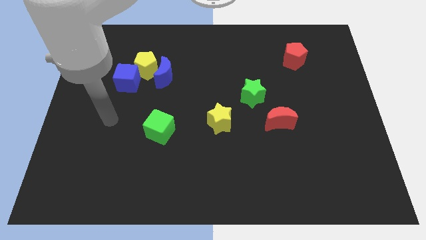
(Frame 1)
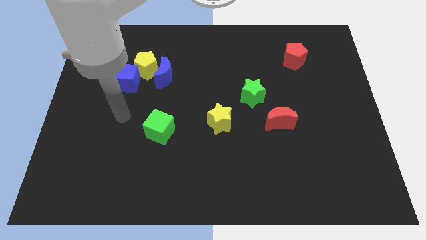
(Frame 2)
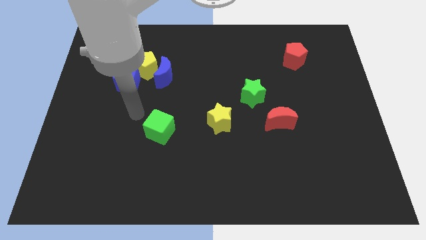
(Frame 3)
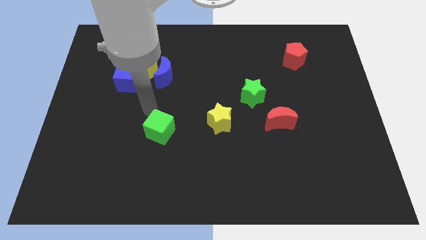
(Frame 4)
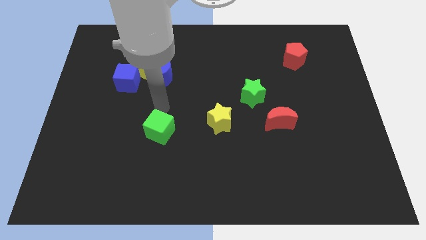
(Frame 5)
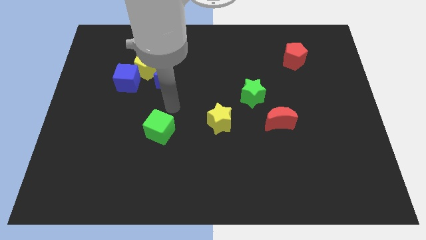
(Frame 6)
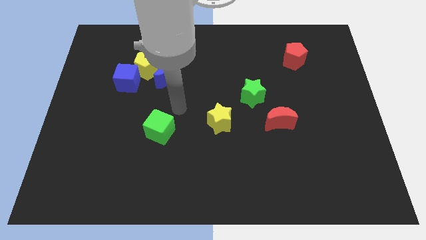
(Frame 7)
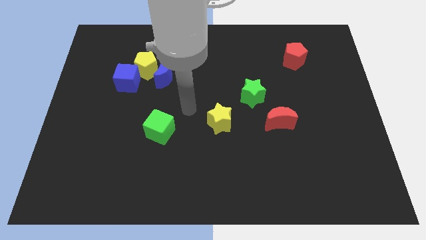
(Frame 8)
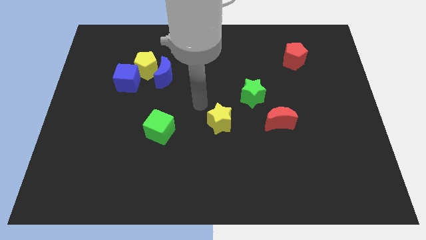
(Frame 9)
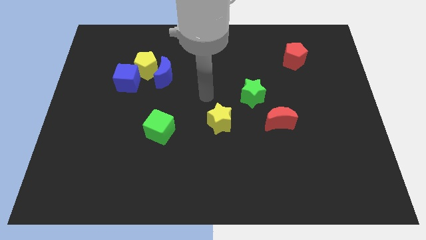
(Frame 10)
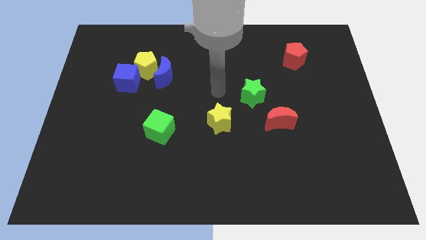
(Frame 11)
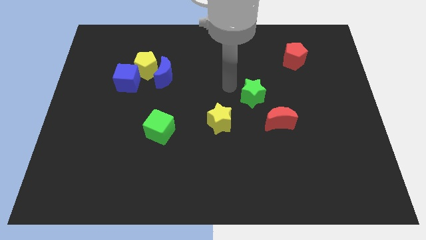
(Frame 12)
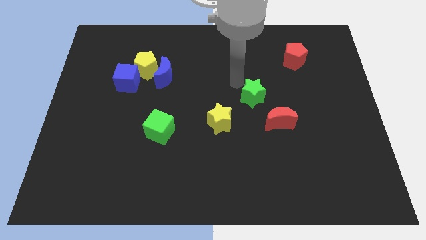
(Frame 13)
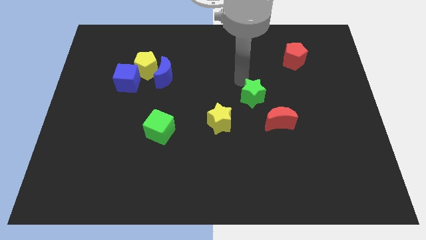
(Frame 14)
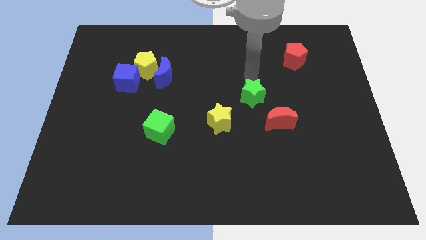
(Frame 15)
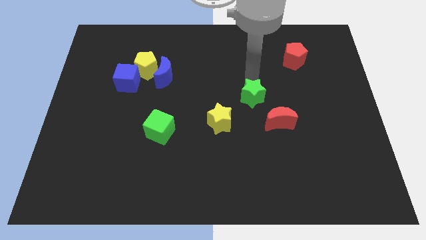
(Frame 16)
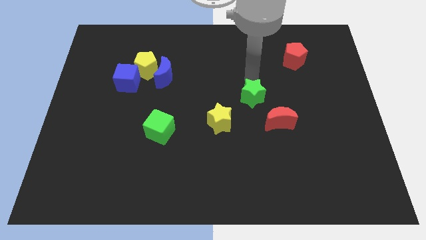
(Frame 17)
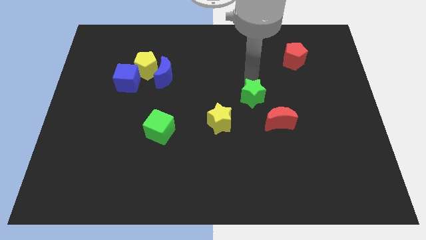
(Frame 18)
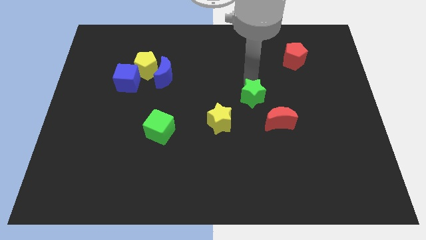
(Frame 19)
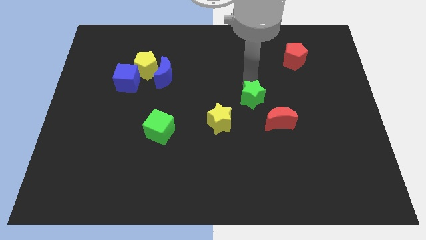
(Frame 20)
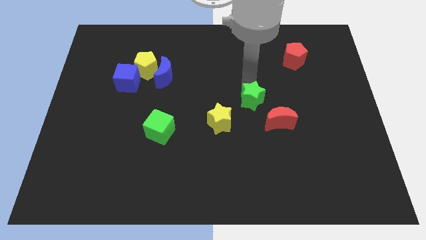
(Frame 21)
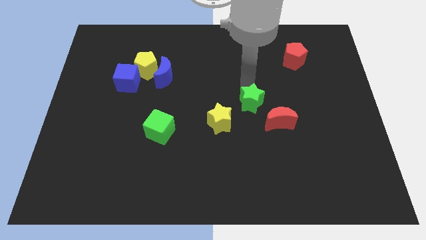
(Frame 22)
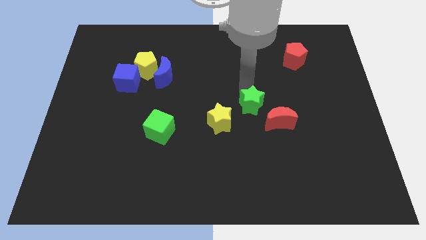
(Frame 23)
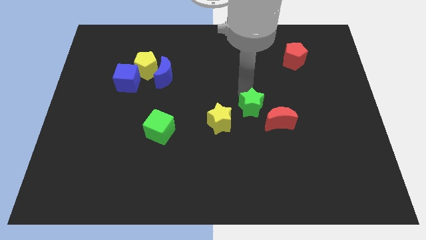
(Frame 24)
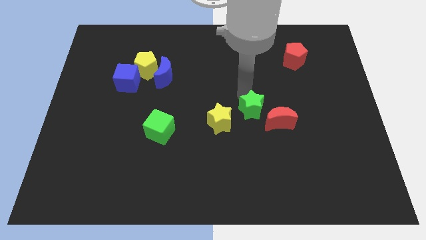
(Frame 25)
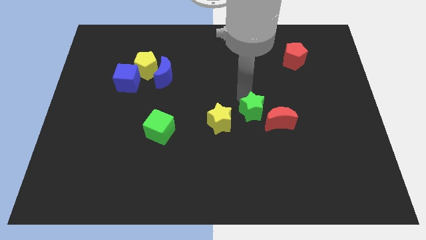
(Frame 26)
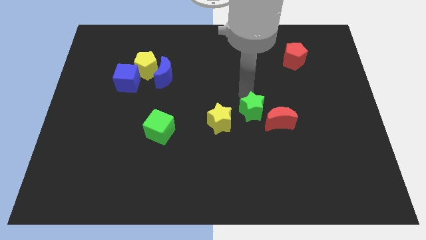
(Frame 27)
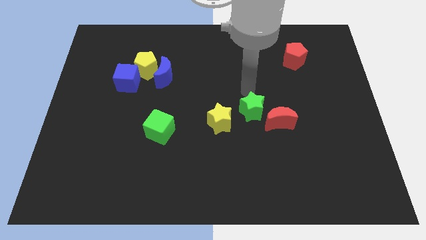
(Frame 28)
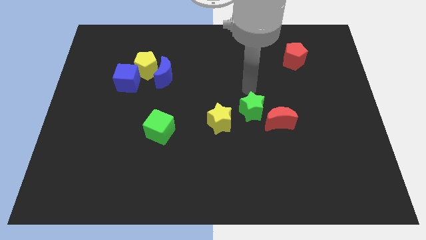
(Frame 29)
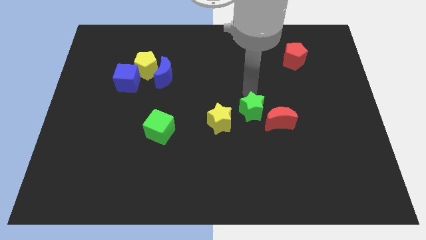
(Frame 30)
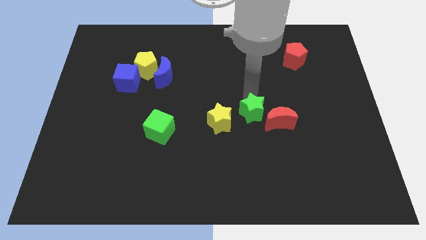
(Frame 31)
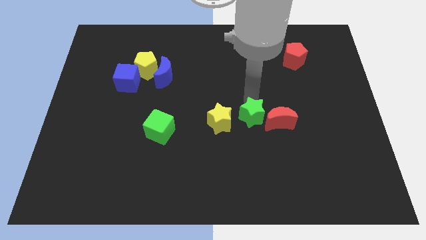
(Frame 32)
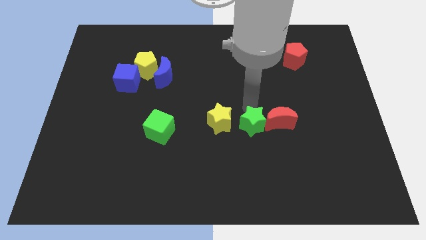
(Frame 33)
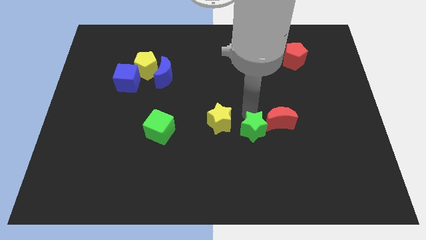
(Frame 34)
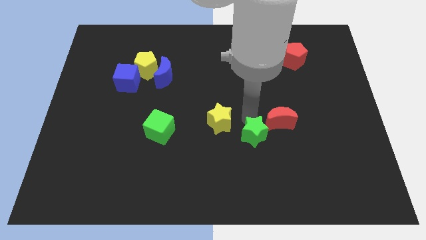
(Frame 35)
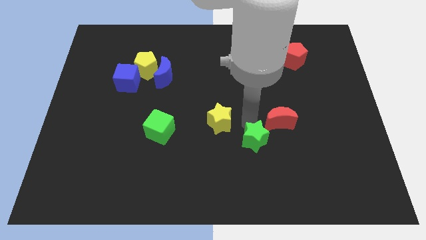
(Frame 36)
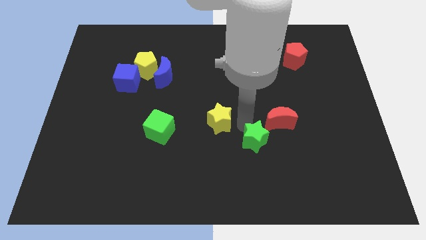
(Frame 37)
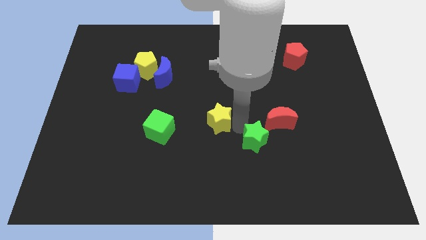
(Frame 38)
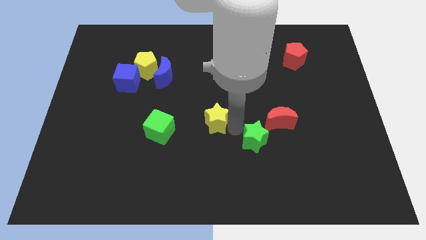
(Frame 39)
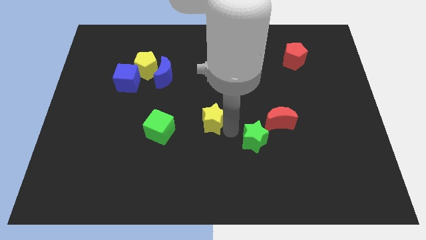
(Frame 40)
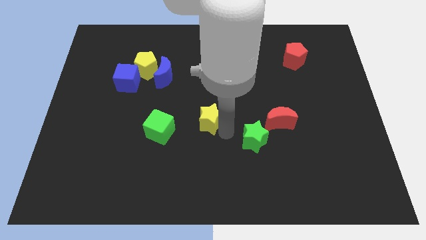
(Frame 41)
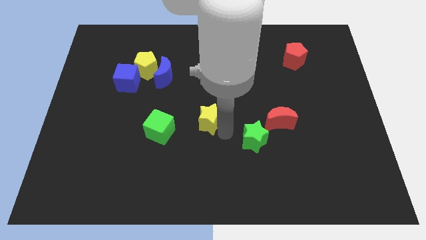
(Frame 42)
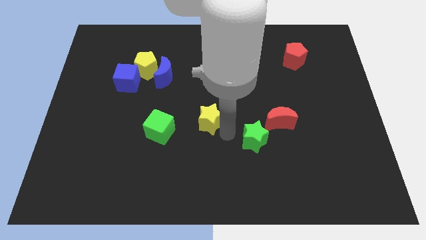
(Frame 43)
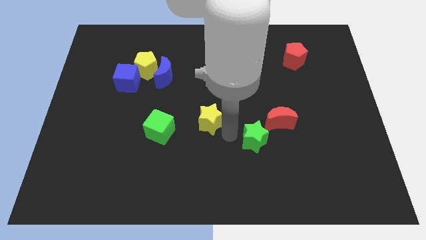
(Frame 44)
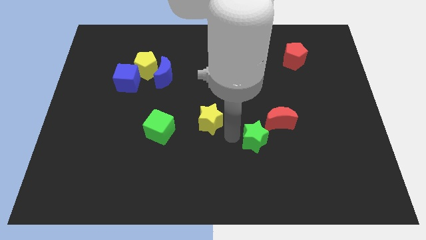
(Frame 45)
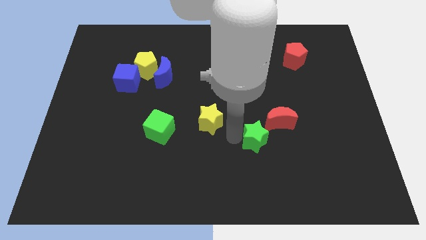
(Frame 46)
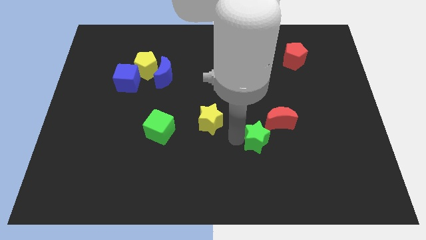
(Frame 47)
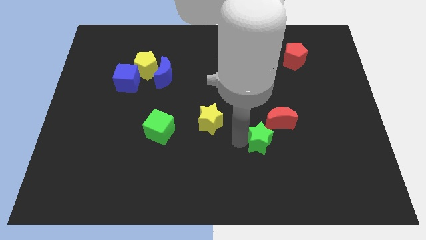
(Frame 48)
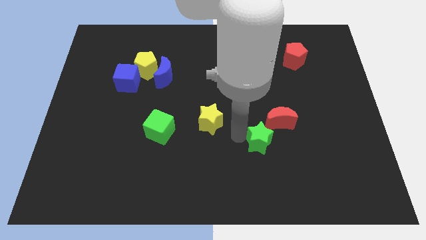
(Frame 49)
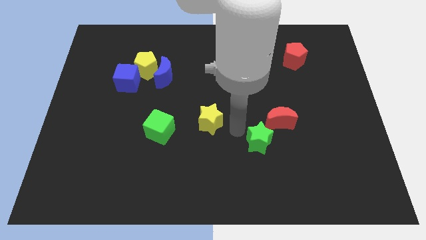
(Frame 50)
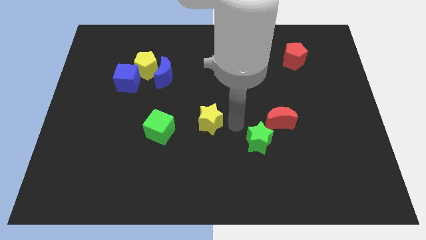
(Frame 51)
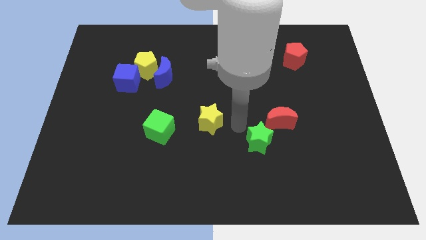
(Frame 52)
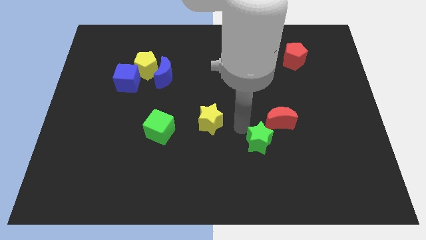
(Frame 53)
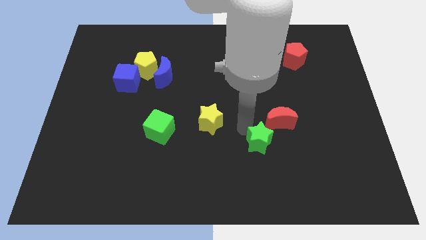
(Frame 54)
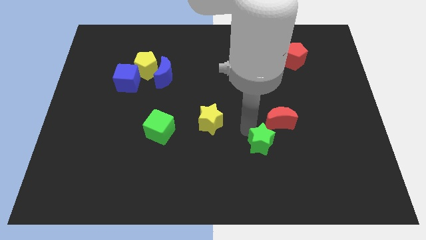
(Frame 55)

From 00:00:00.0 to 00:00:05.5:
slide the green star below the red moon
